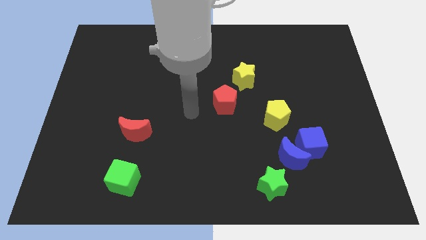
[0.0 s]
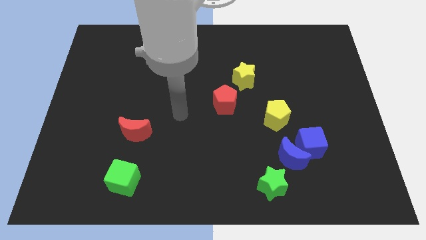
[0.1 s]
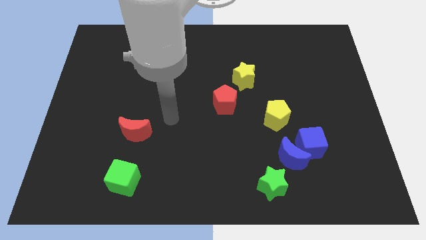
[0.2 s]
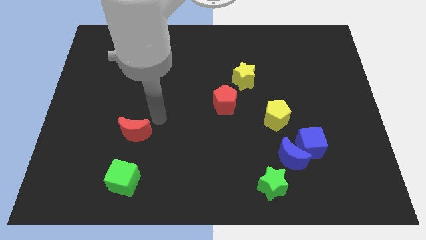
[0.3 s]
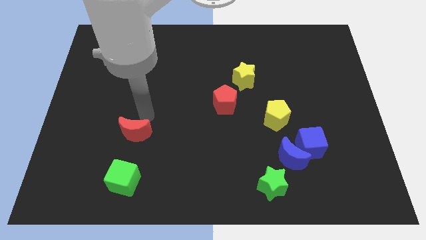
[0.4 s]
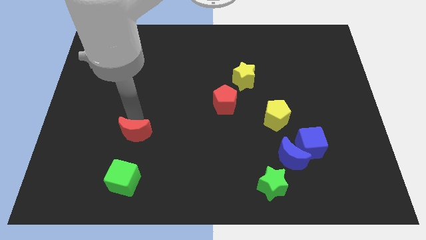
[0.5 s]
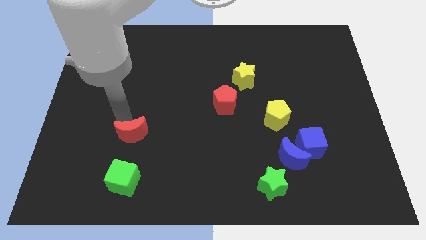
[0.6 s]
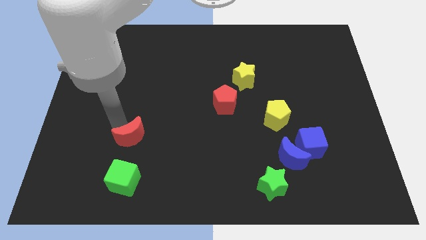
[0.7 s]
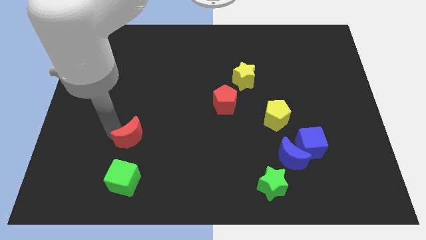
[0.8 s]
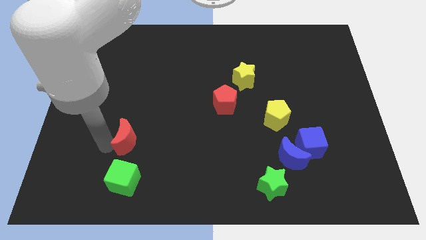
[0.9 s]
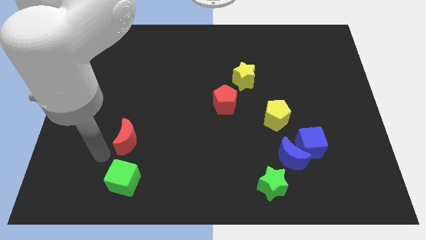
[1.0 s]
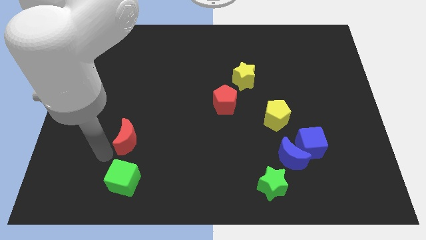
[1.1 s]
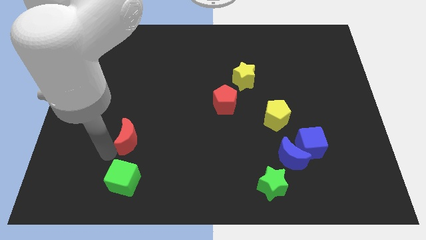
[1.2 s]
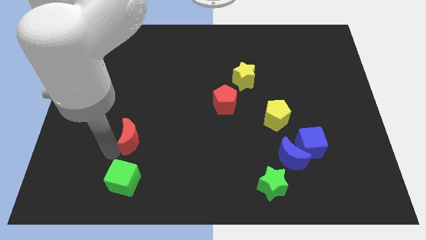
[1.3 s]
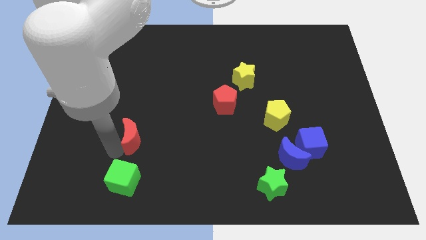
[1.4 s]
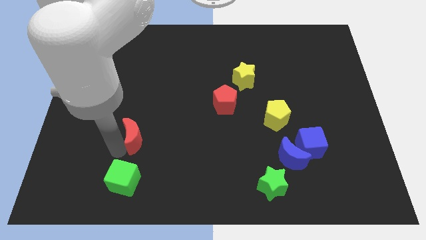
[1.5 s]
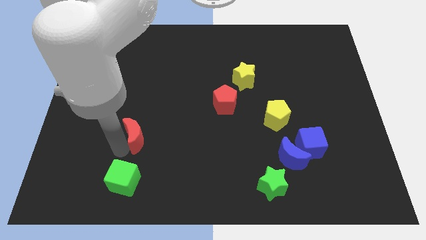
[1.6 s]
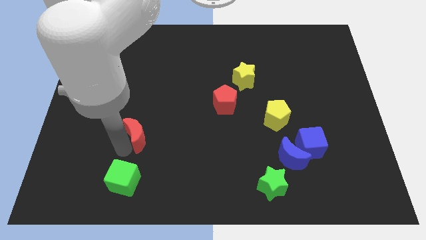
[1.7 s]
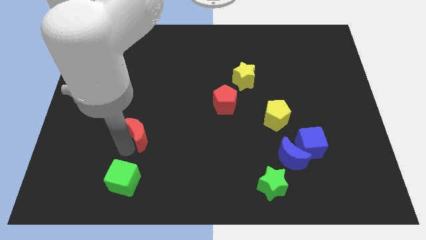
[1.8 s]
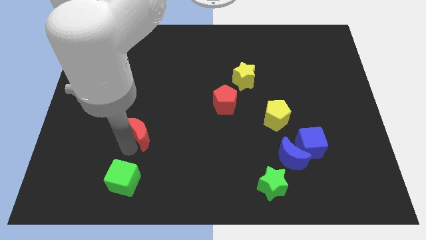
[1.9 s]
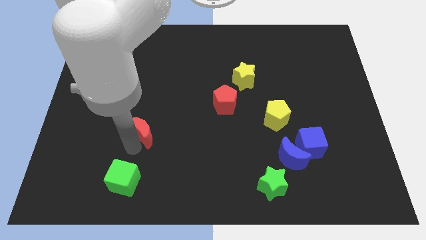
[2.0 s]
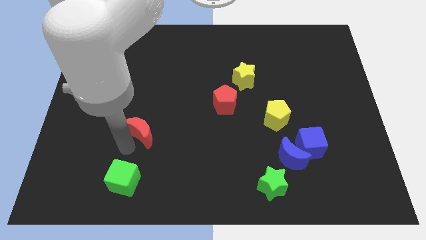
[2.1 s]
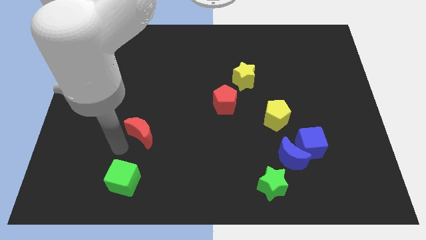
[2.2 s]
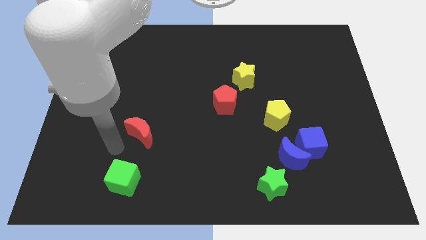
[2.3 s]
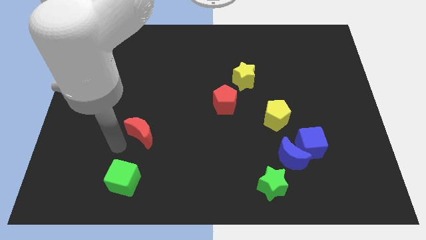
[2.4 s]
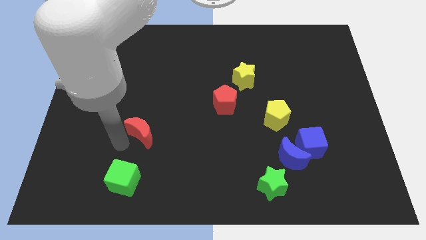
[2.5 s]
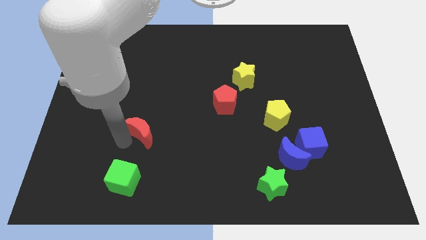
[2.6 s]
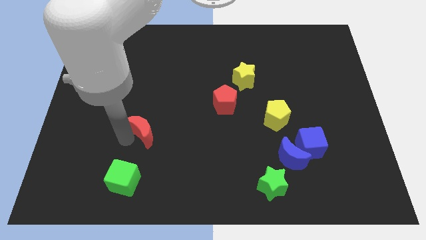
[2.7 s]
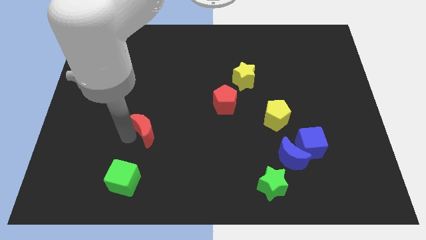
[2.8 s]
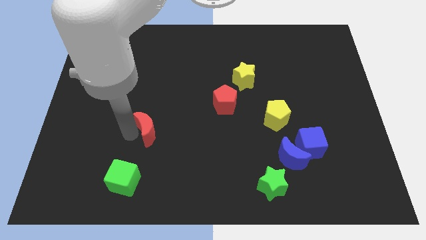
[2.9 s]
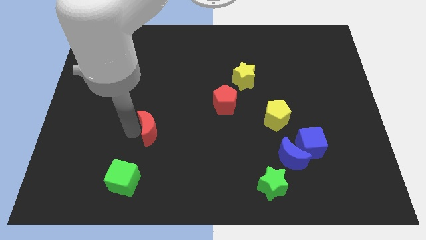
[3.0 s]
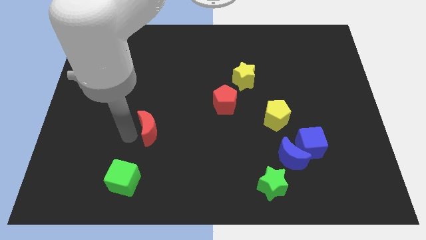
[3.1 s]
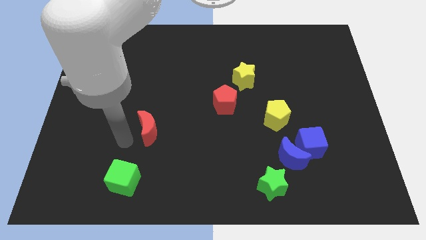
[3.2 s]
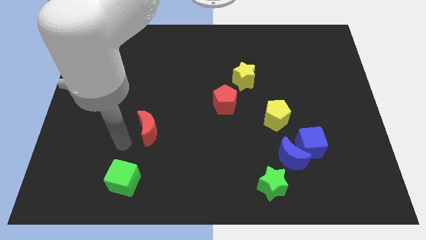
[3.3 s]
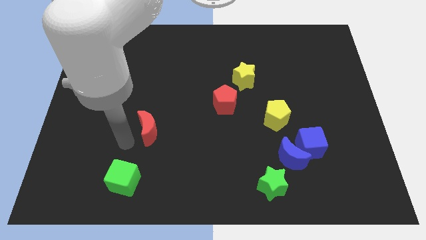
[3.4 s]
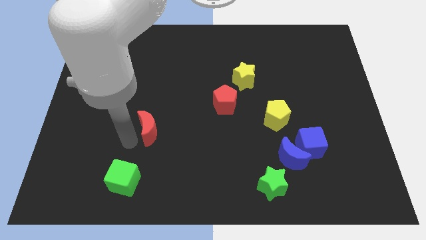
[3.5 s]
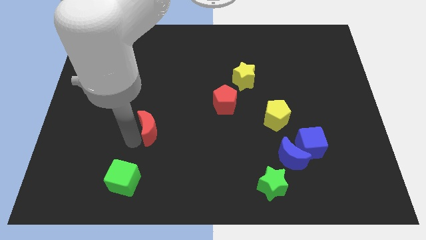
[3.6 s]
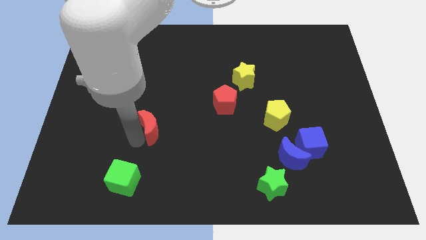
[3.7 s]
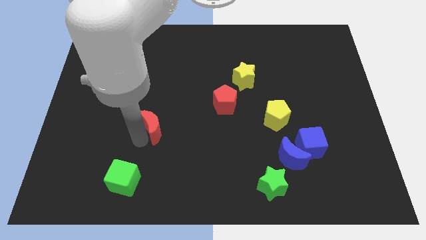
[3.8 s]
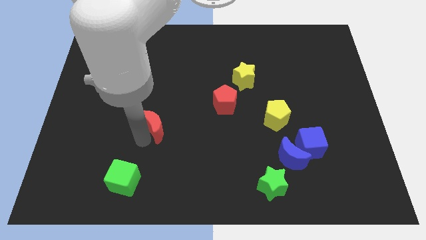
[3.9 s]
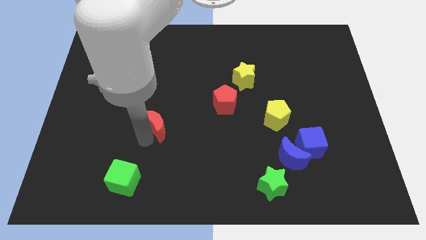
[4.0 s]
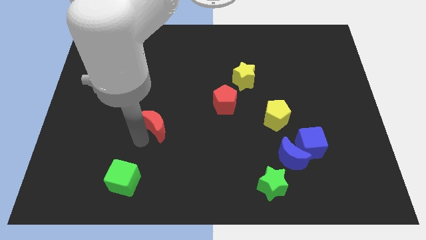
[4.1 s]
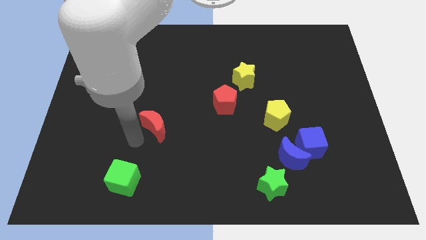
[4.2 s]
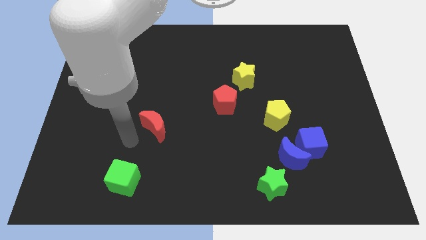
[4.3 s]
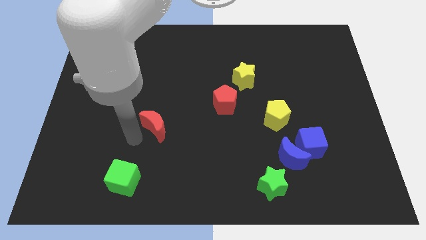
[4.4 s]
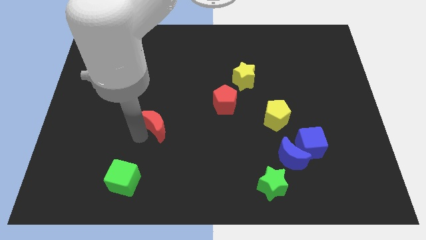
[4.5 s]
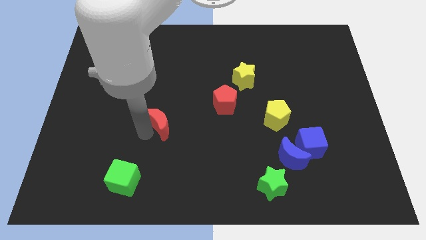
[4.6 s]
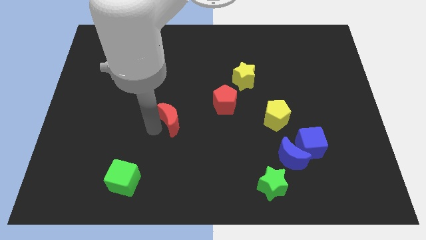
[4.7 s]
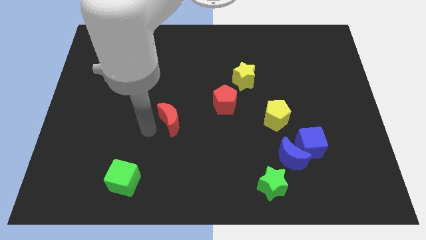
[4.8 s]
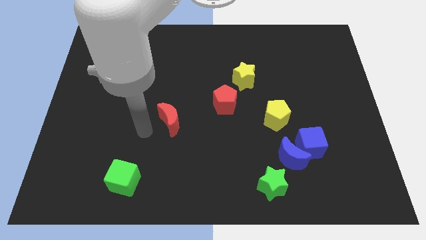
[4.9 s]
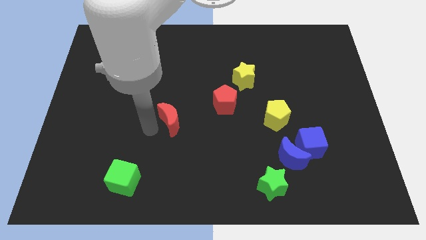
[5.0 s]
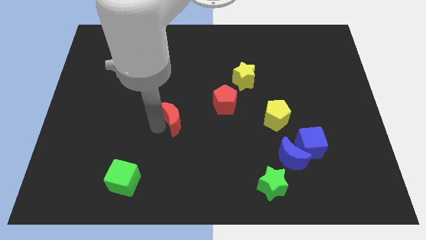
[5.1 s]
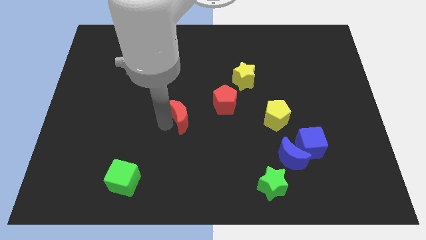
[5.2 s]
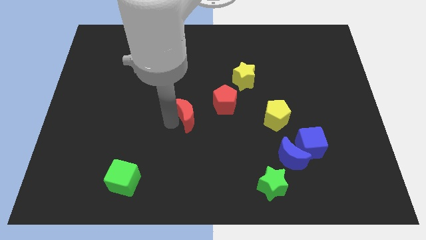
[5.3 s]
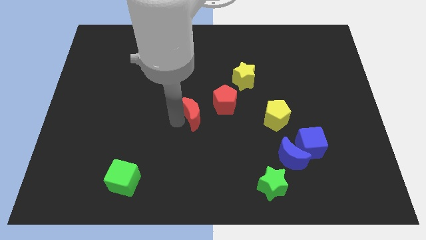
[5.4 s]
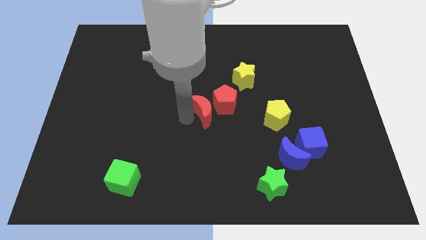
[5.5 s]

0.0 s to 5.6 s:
move the red moon close to the red pentagon

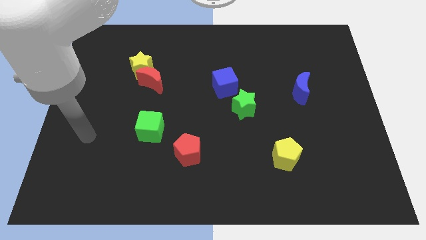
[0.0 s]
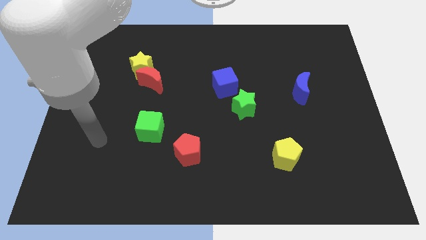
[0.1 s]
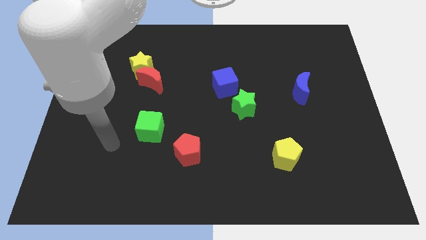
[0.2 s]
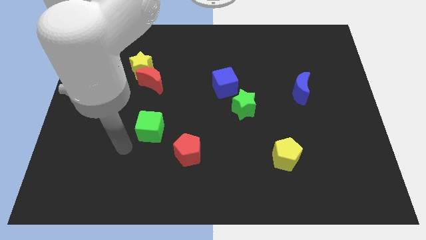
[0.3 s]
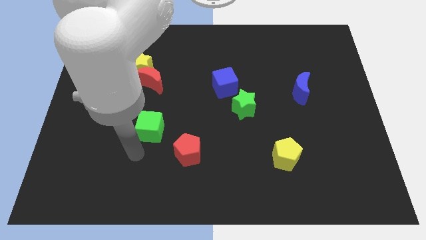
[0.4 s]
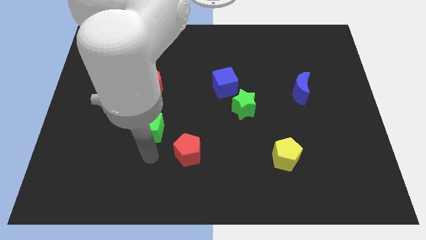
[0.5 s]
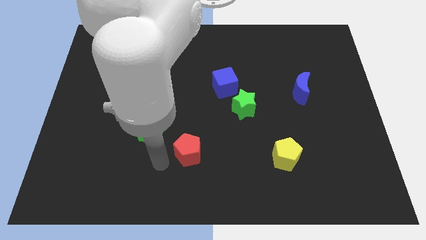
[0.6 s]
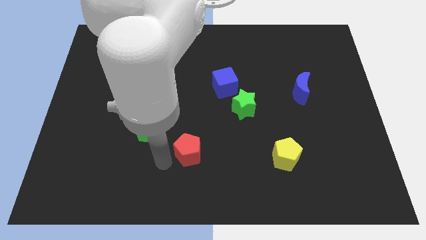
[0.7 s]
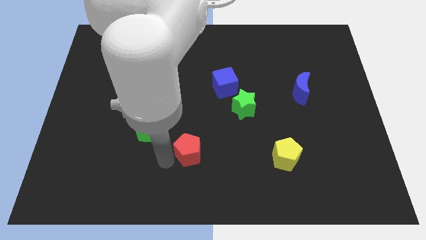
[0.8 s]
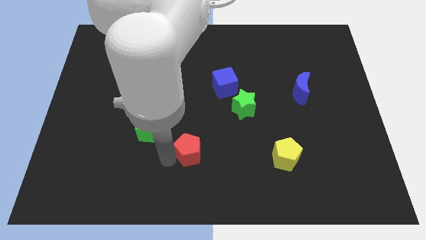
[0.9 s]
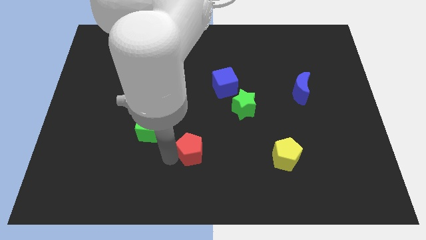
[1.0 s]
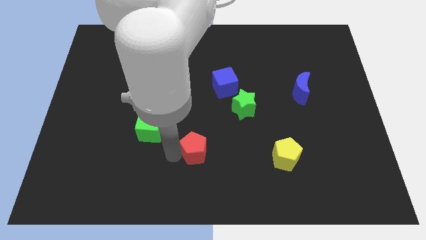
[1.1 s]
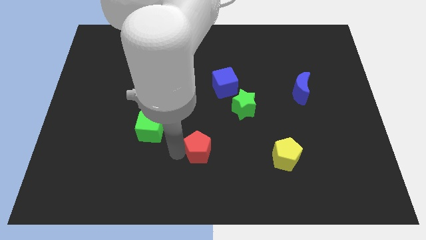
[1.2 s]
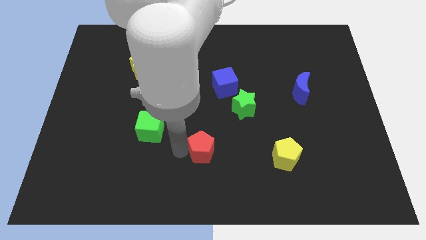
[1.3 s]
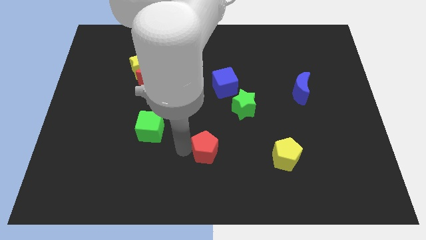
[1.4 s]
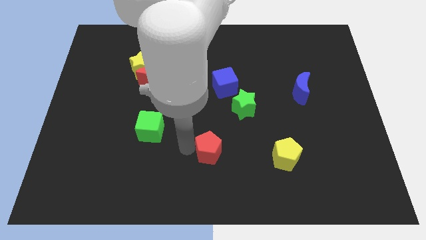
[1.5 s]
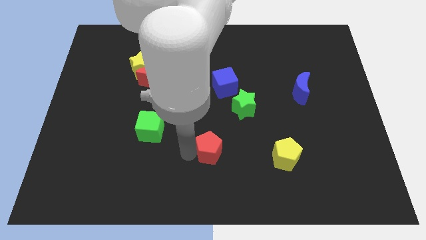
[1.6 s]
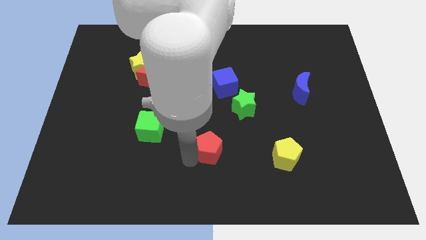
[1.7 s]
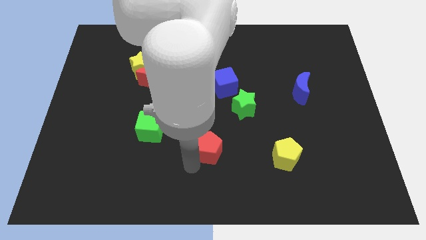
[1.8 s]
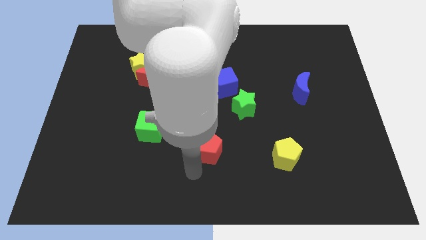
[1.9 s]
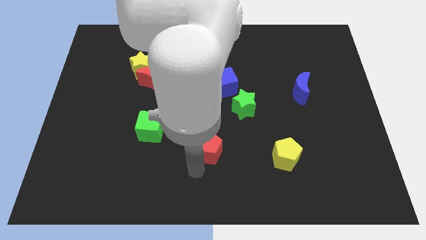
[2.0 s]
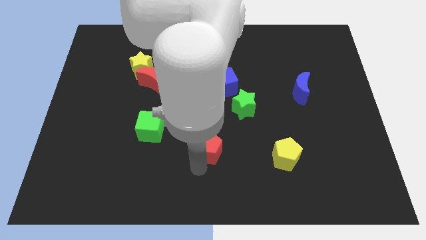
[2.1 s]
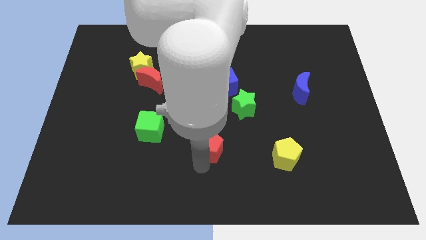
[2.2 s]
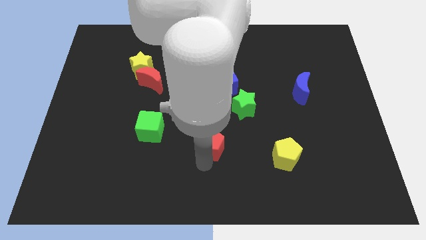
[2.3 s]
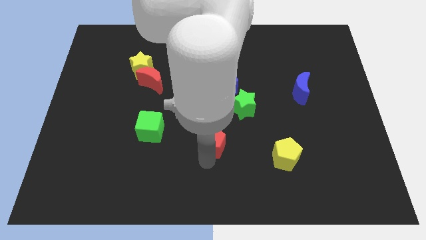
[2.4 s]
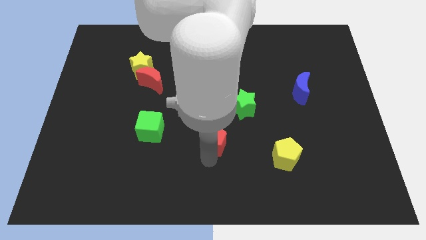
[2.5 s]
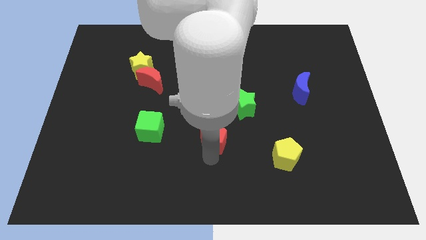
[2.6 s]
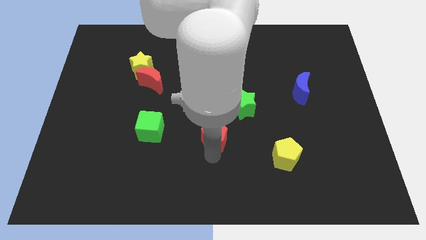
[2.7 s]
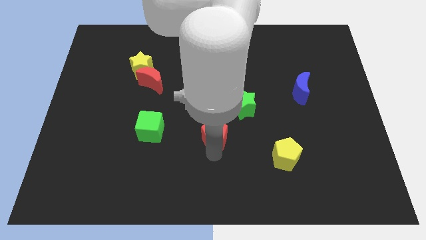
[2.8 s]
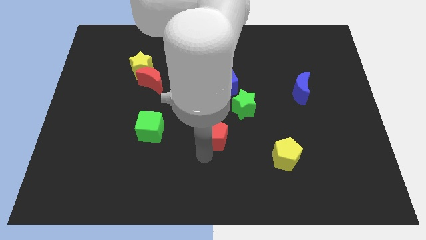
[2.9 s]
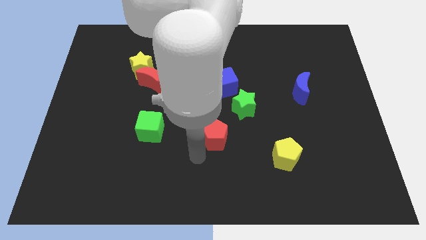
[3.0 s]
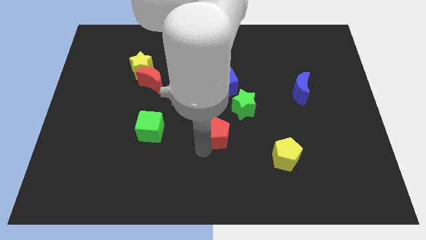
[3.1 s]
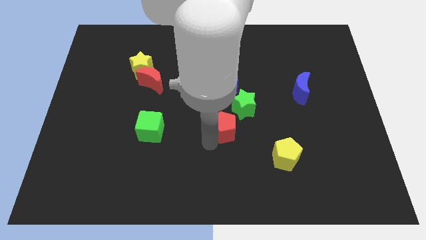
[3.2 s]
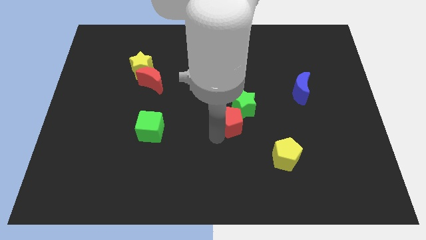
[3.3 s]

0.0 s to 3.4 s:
slide the red pentagon towards the green star
